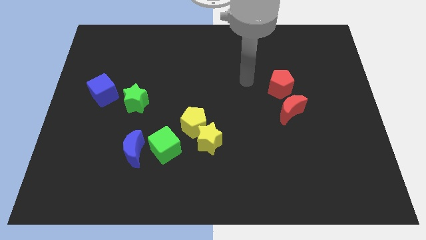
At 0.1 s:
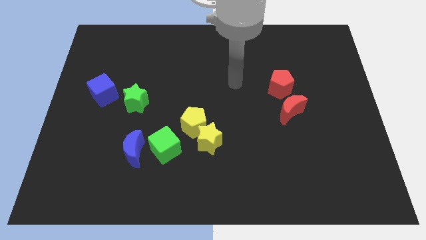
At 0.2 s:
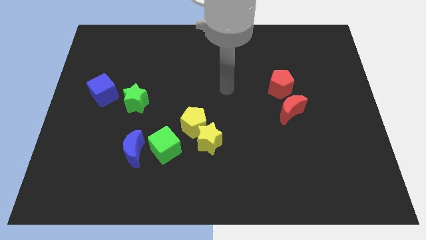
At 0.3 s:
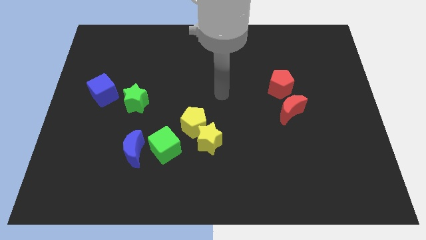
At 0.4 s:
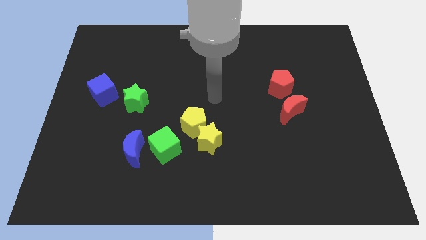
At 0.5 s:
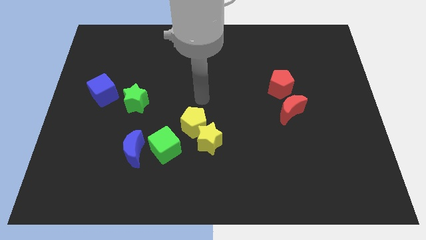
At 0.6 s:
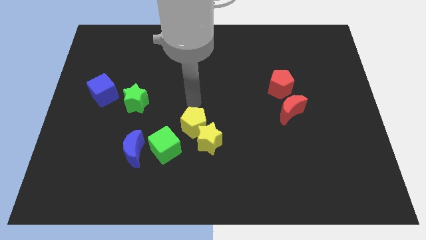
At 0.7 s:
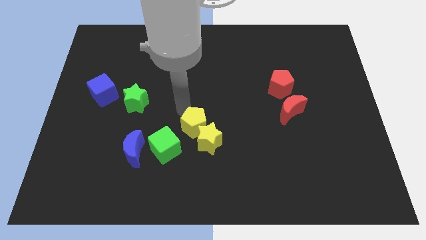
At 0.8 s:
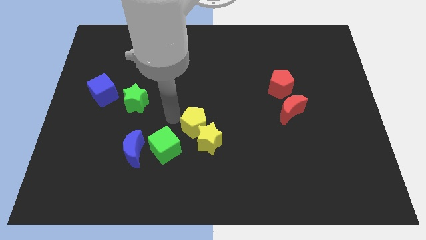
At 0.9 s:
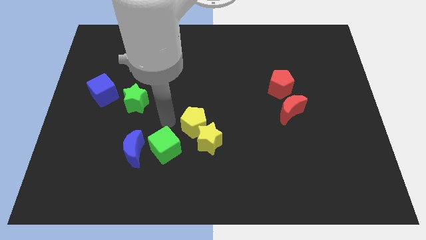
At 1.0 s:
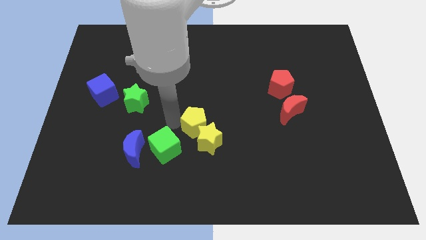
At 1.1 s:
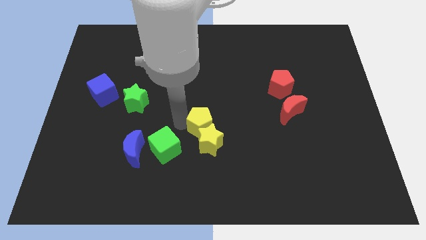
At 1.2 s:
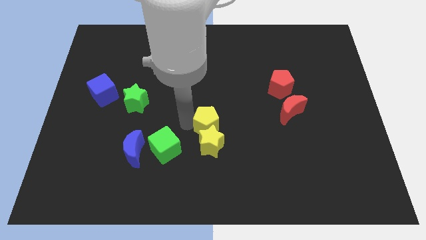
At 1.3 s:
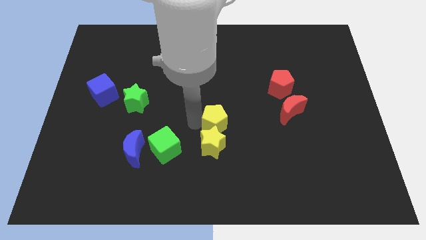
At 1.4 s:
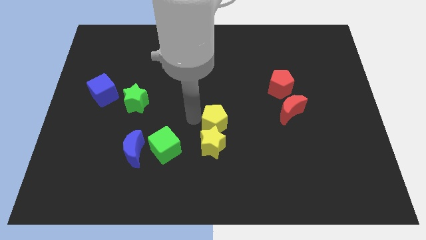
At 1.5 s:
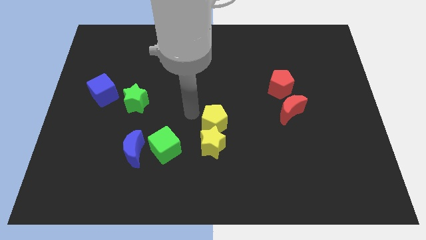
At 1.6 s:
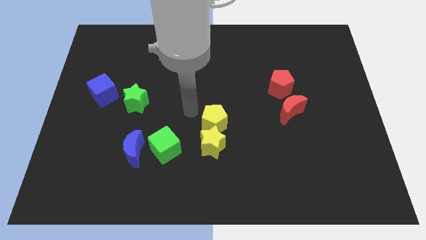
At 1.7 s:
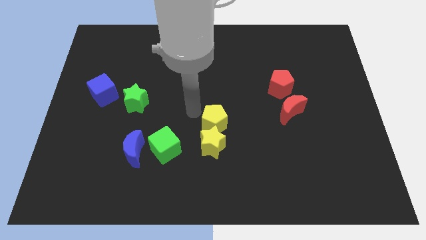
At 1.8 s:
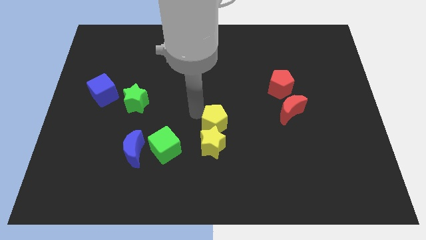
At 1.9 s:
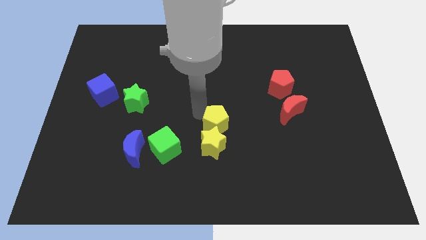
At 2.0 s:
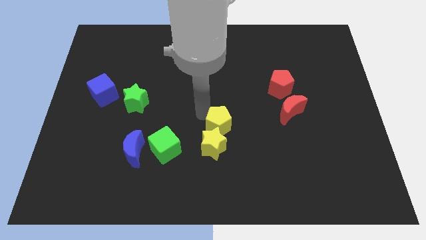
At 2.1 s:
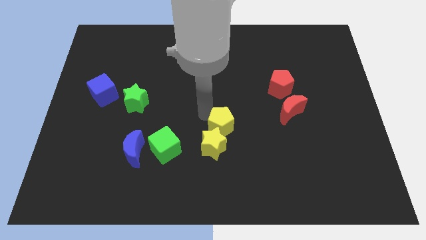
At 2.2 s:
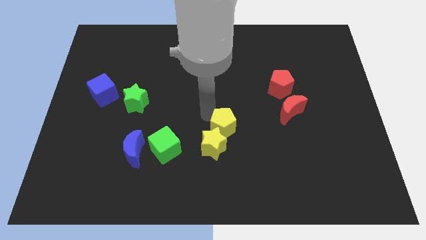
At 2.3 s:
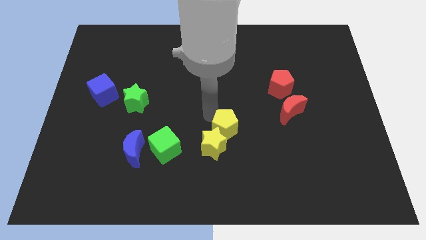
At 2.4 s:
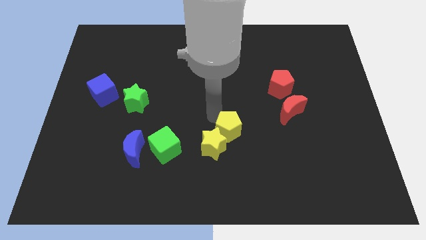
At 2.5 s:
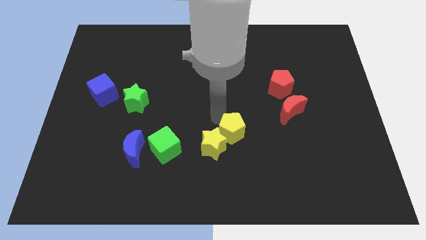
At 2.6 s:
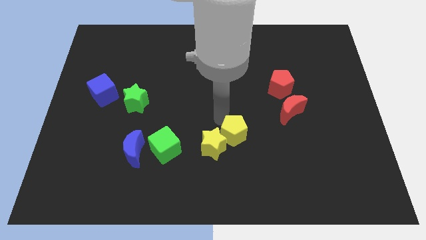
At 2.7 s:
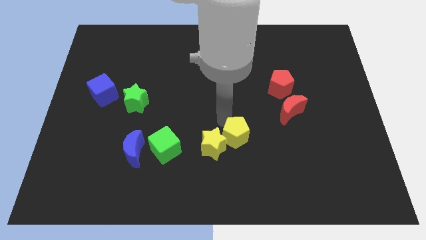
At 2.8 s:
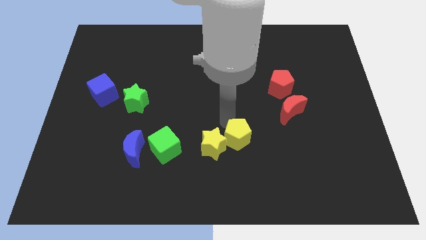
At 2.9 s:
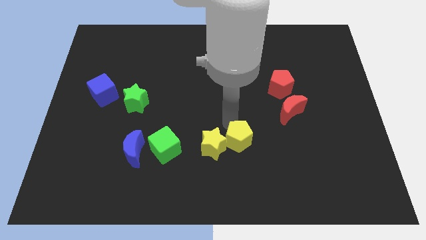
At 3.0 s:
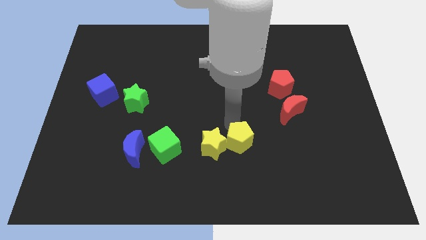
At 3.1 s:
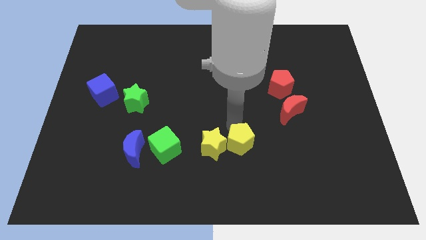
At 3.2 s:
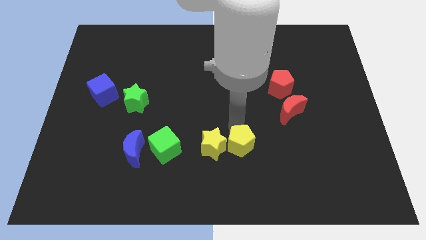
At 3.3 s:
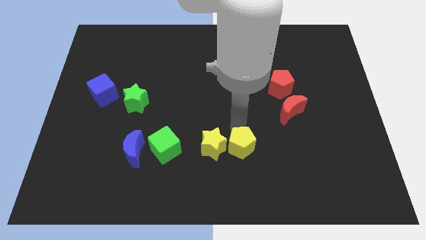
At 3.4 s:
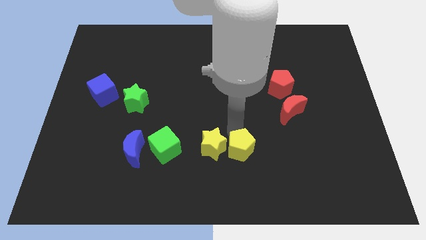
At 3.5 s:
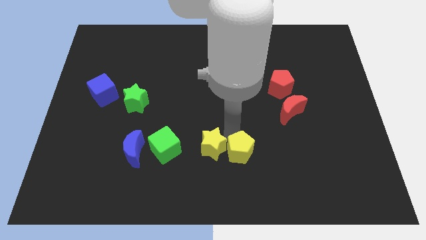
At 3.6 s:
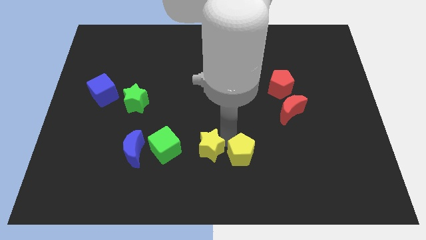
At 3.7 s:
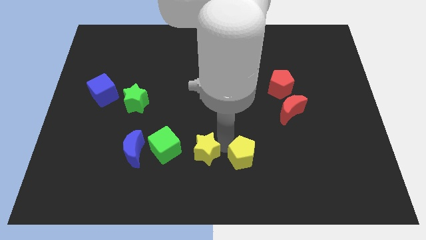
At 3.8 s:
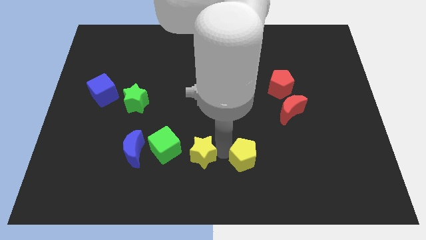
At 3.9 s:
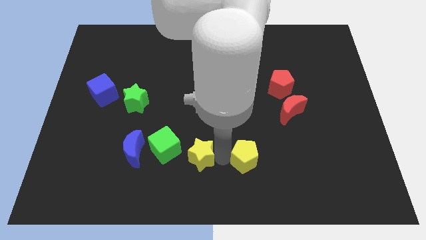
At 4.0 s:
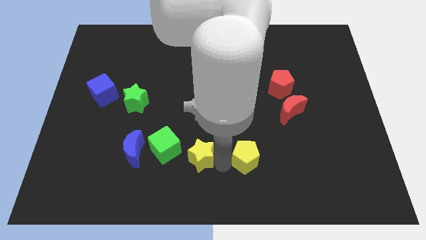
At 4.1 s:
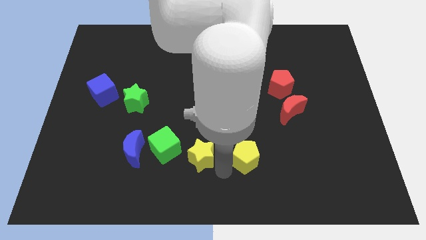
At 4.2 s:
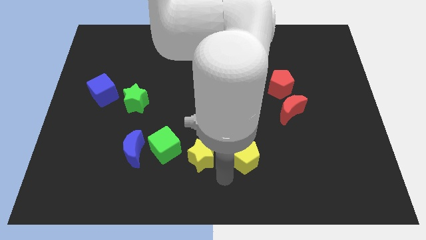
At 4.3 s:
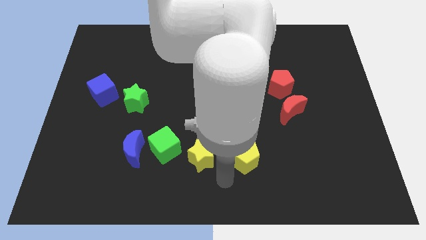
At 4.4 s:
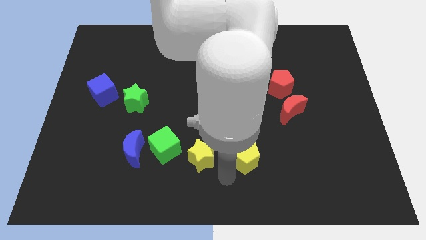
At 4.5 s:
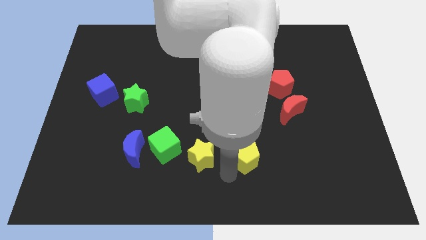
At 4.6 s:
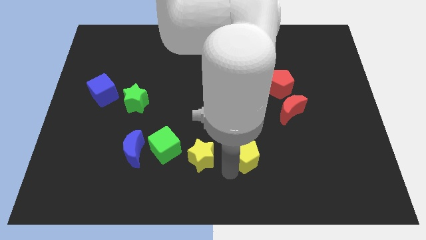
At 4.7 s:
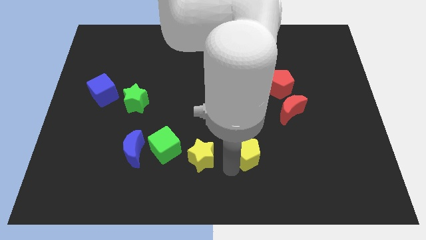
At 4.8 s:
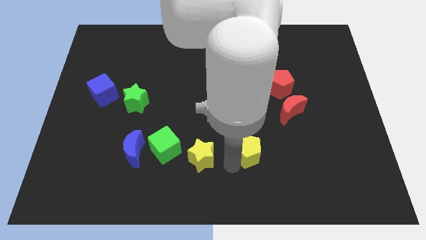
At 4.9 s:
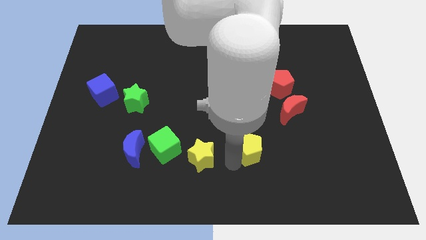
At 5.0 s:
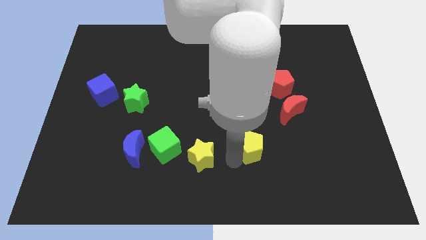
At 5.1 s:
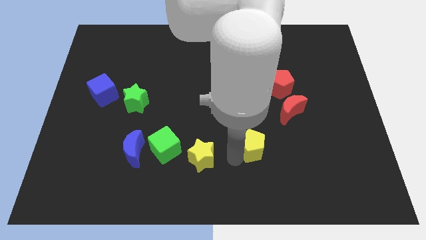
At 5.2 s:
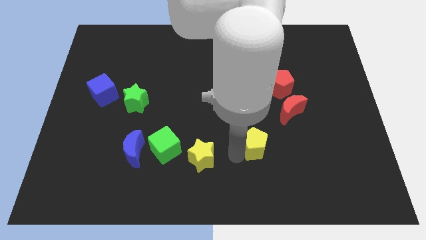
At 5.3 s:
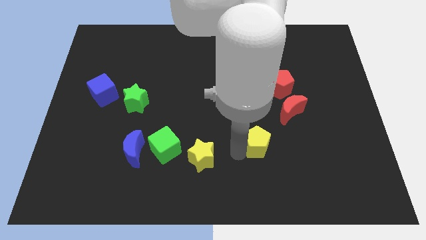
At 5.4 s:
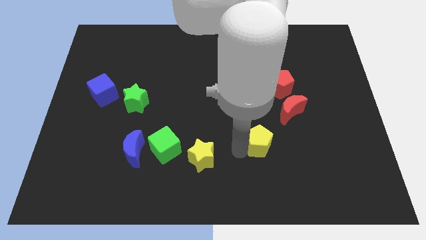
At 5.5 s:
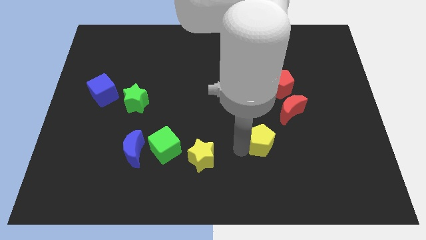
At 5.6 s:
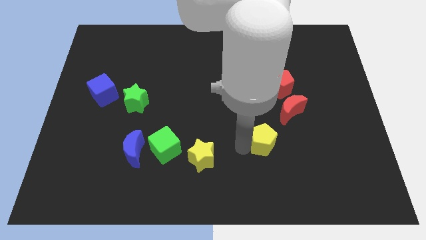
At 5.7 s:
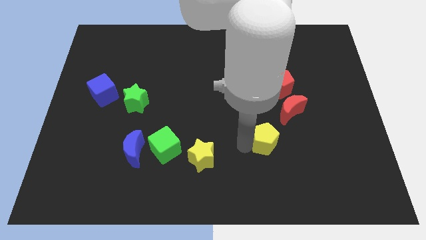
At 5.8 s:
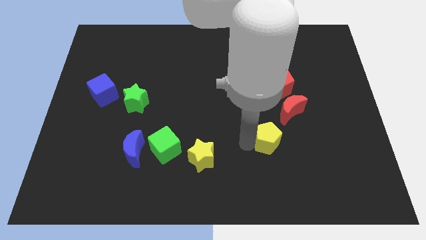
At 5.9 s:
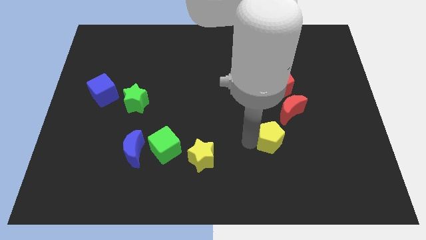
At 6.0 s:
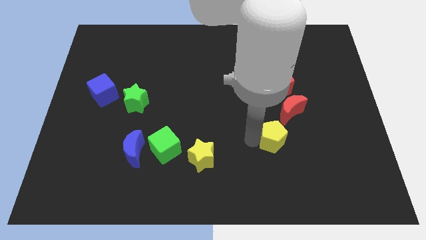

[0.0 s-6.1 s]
put the yellow pentagon below the red moon

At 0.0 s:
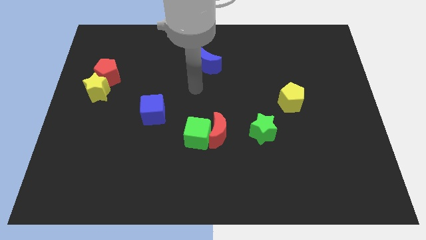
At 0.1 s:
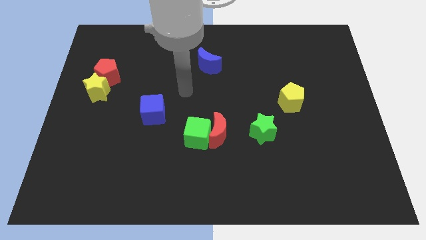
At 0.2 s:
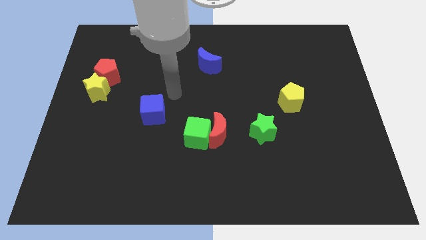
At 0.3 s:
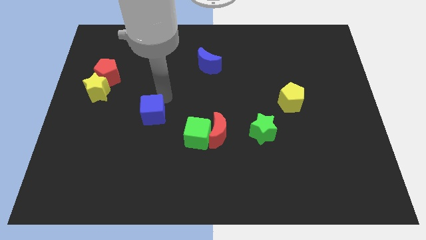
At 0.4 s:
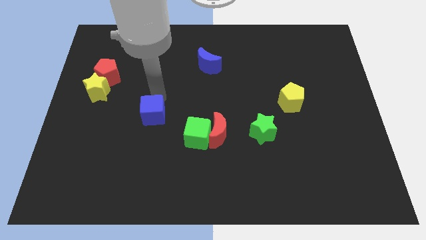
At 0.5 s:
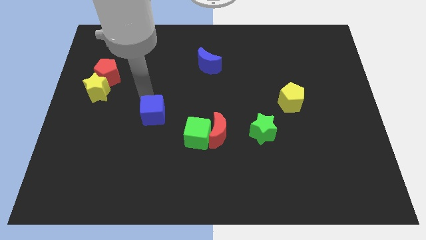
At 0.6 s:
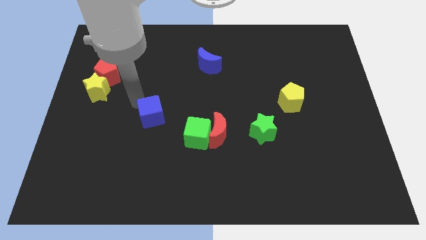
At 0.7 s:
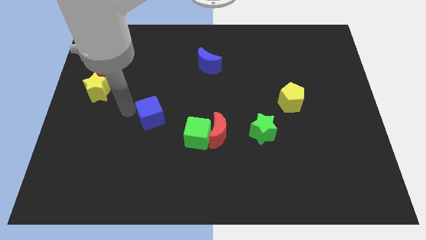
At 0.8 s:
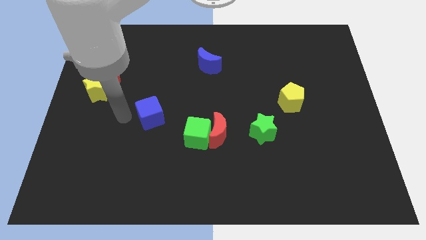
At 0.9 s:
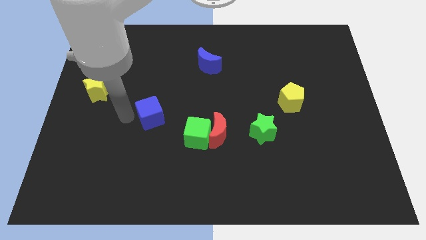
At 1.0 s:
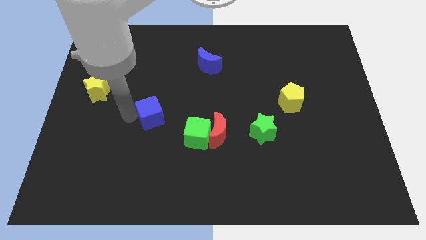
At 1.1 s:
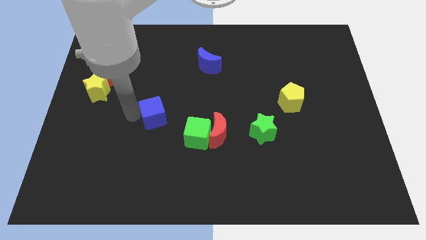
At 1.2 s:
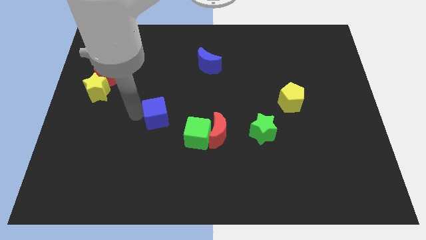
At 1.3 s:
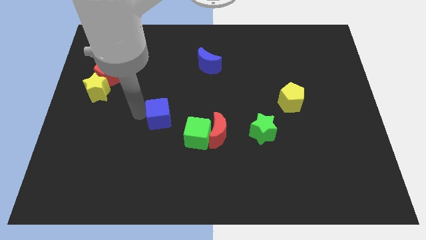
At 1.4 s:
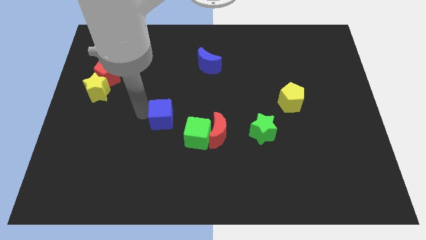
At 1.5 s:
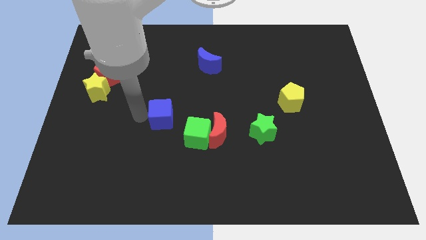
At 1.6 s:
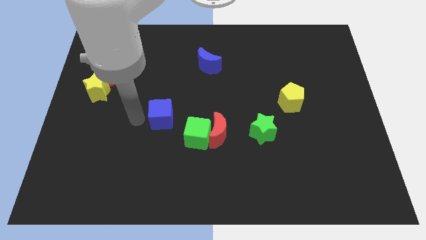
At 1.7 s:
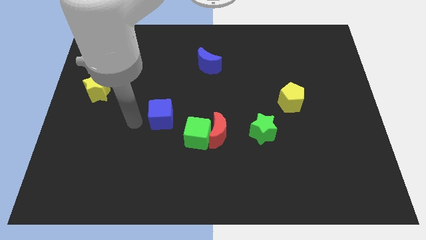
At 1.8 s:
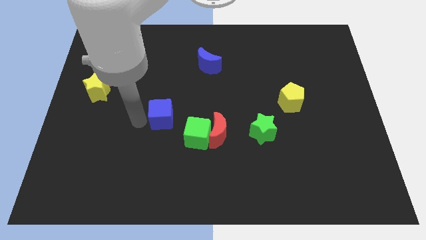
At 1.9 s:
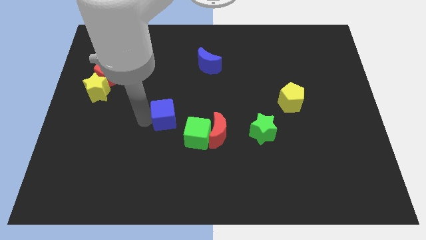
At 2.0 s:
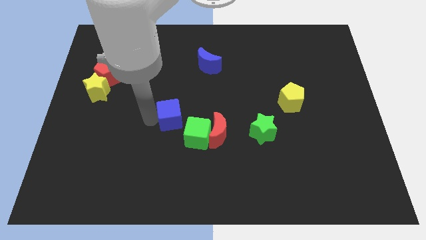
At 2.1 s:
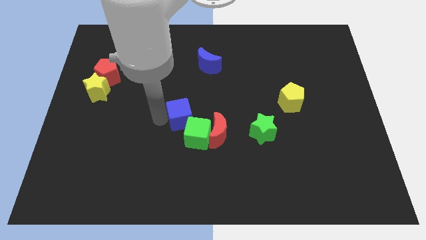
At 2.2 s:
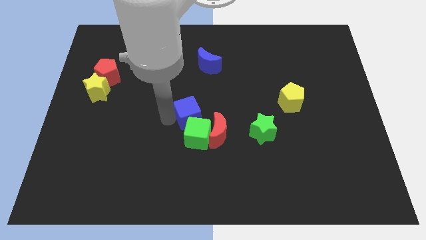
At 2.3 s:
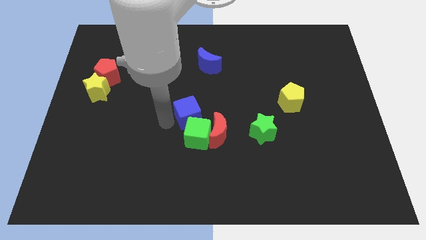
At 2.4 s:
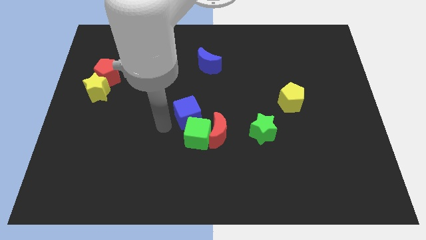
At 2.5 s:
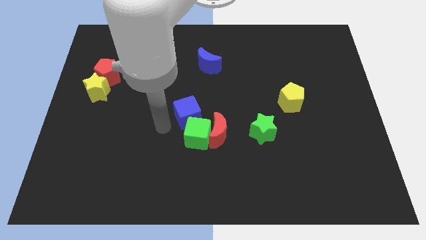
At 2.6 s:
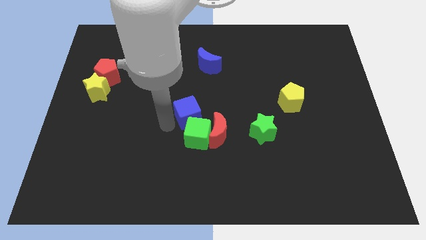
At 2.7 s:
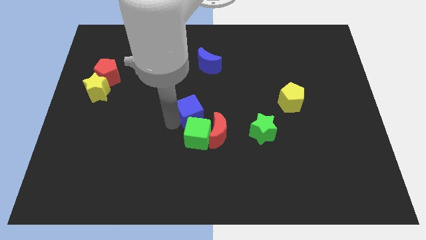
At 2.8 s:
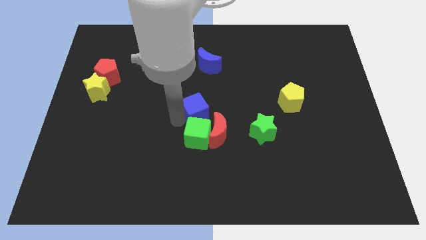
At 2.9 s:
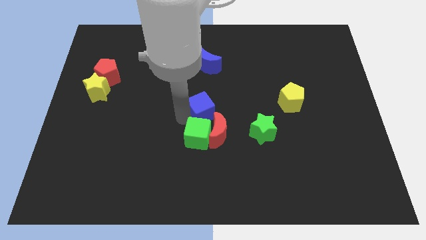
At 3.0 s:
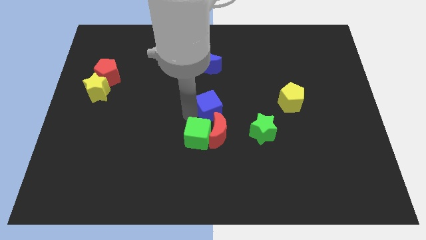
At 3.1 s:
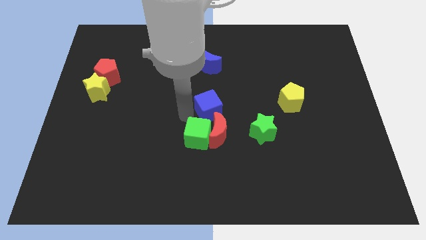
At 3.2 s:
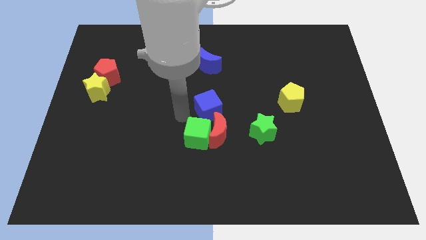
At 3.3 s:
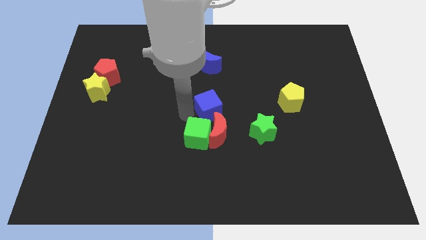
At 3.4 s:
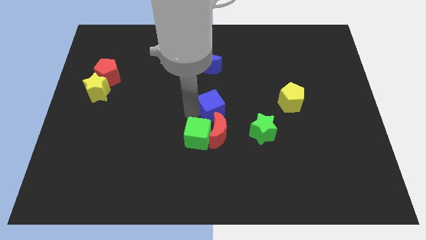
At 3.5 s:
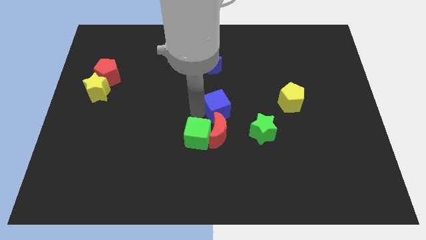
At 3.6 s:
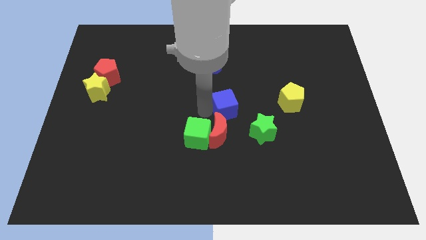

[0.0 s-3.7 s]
push the blue cube just left of the yellow pentagon
